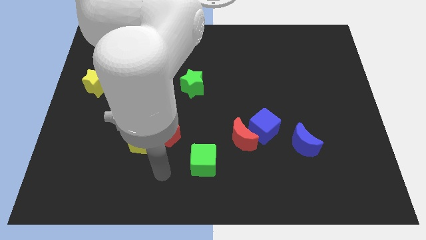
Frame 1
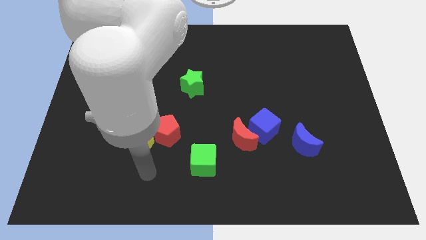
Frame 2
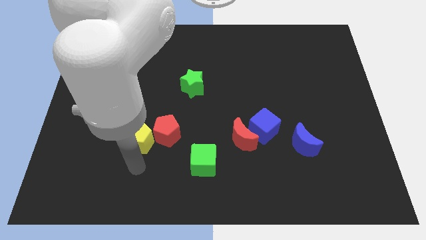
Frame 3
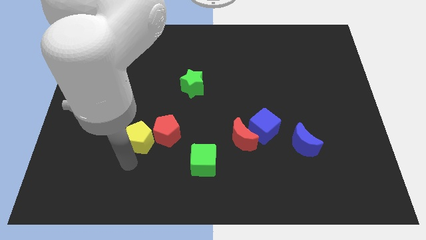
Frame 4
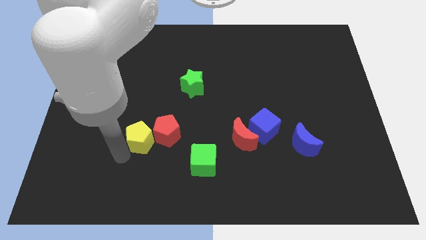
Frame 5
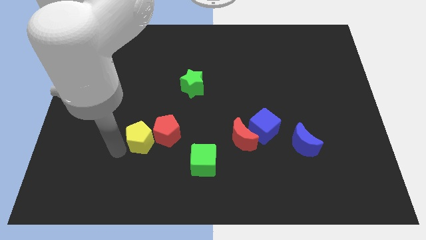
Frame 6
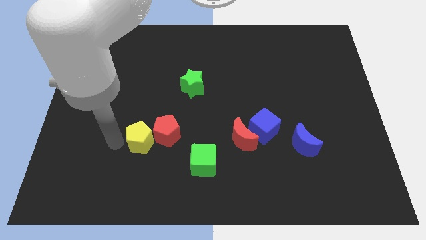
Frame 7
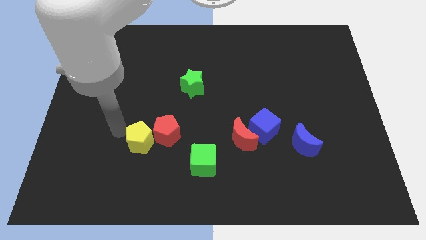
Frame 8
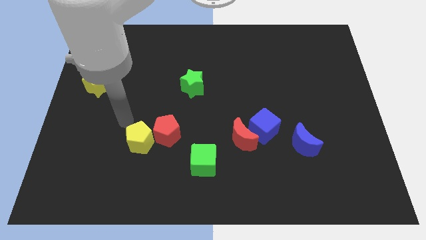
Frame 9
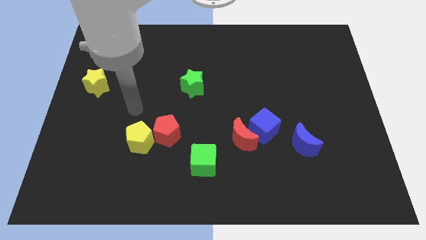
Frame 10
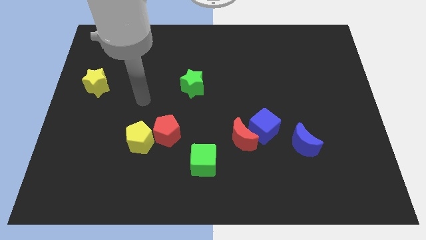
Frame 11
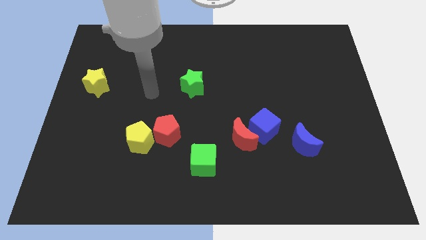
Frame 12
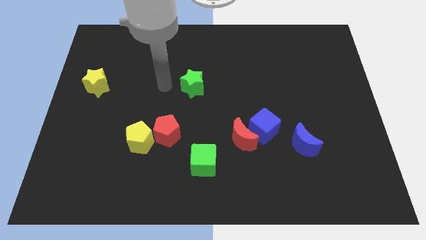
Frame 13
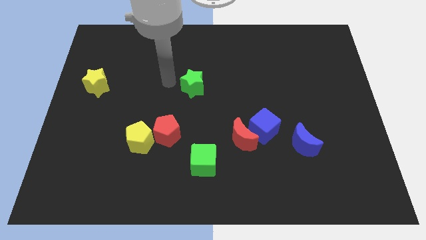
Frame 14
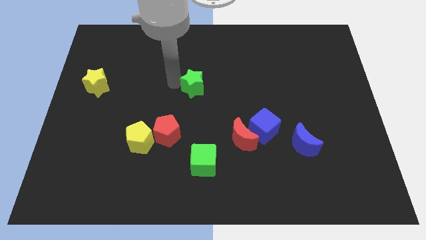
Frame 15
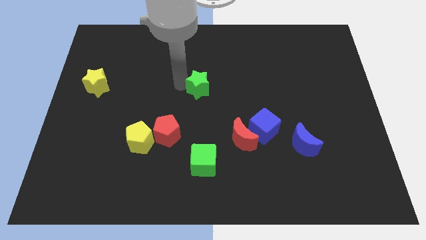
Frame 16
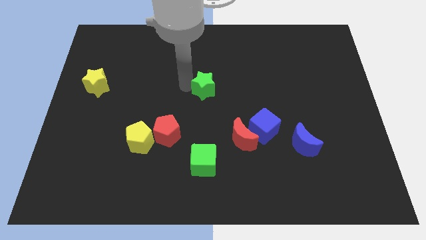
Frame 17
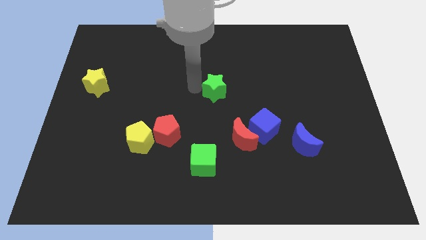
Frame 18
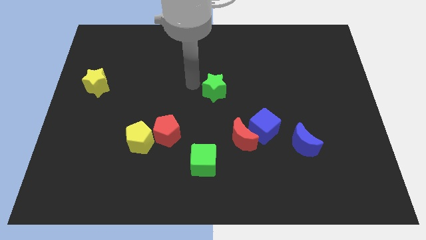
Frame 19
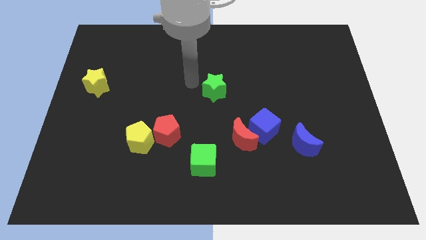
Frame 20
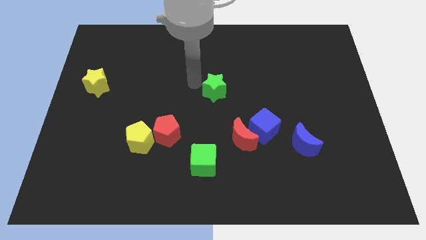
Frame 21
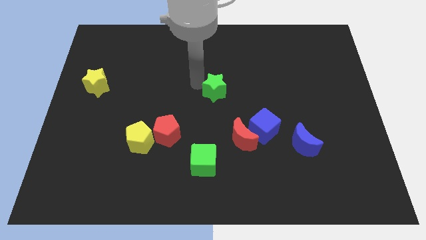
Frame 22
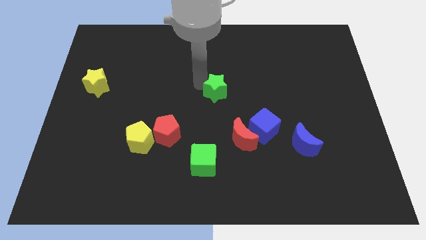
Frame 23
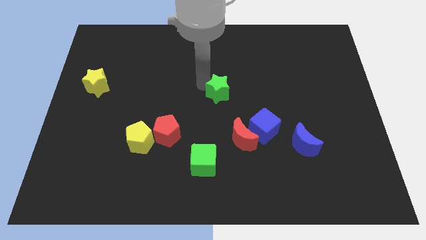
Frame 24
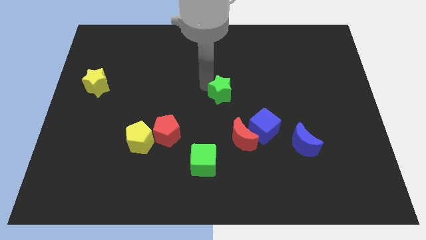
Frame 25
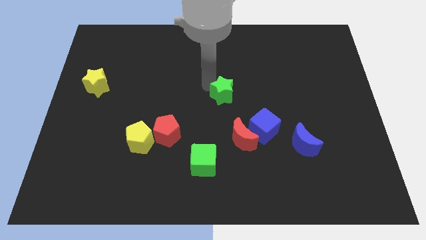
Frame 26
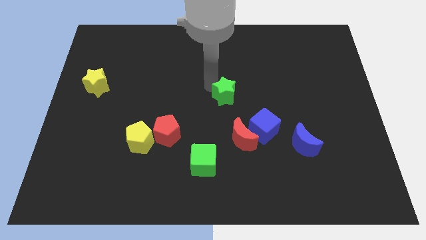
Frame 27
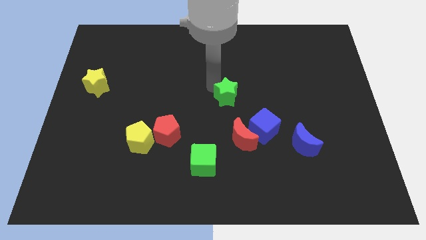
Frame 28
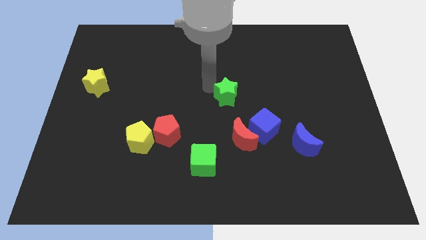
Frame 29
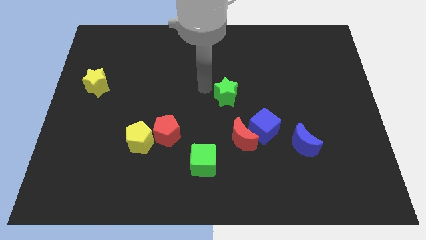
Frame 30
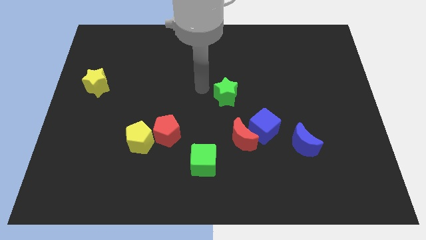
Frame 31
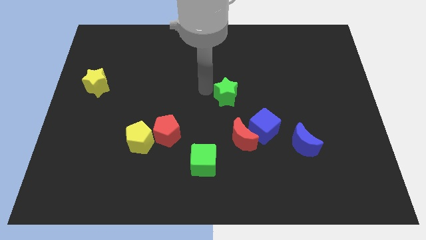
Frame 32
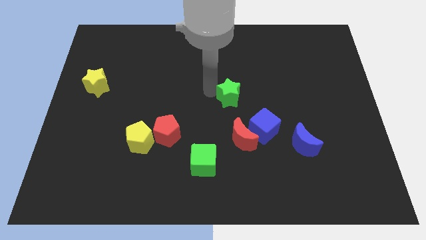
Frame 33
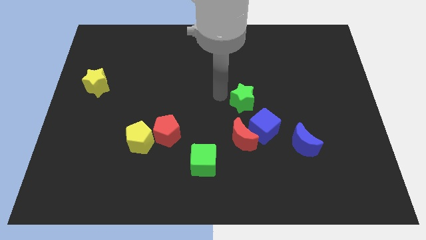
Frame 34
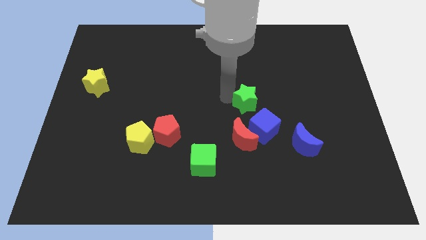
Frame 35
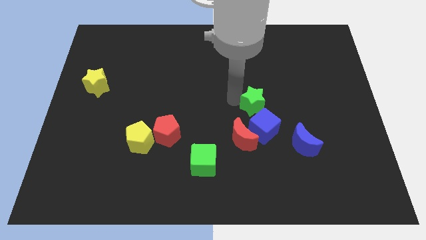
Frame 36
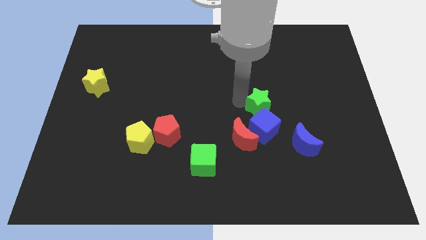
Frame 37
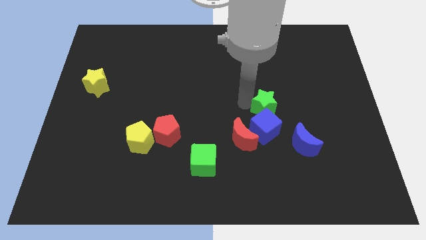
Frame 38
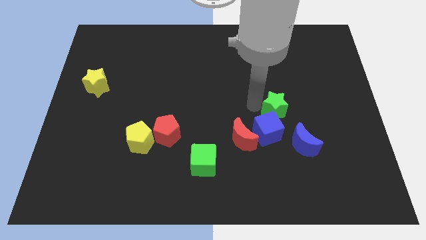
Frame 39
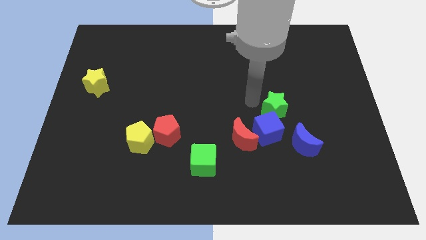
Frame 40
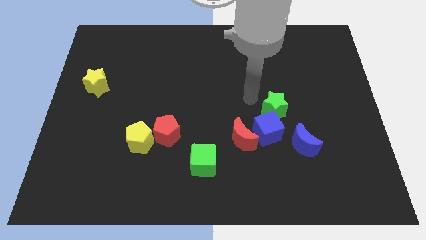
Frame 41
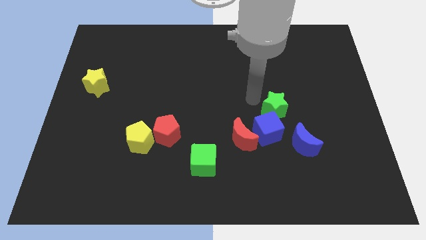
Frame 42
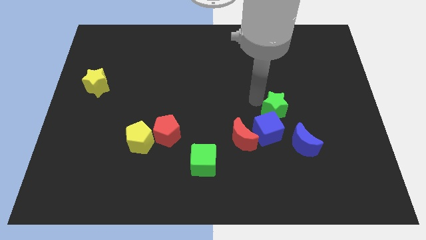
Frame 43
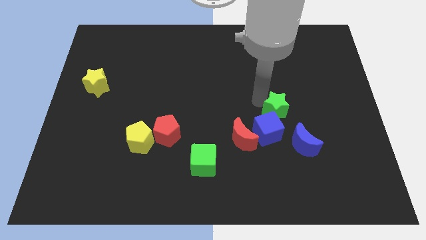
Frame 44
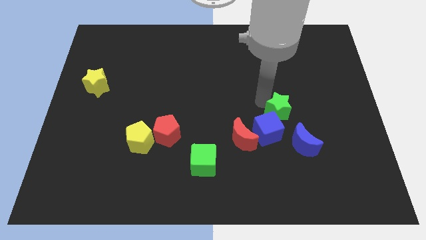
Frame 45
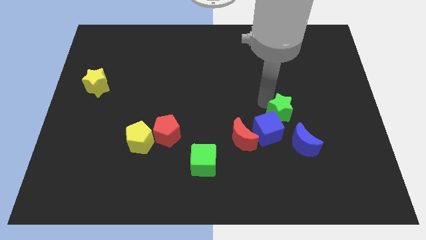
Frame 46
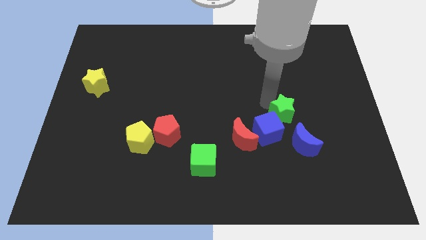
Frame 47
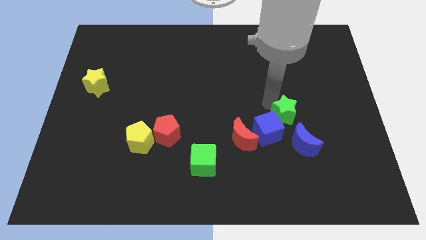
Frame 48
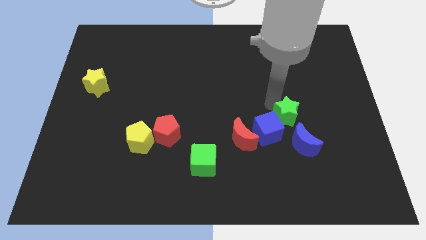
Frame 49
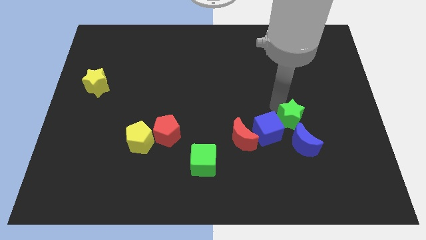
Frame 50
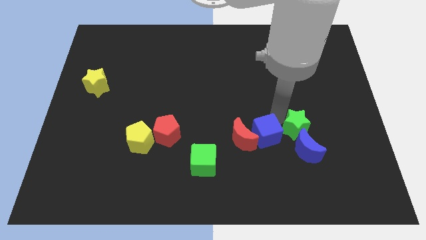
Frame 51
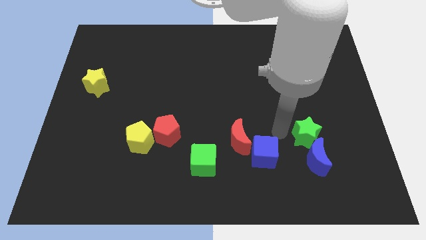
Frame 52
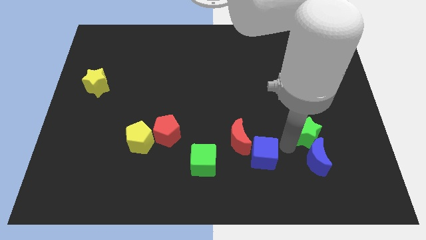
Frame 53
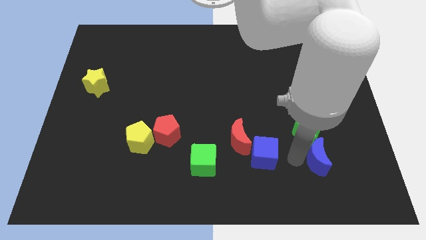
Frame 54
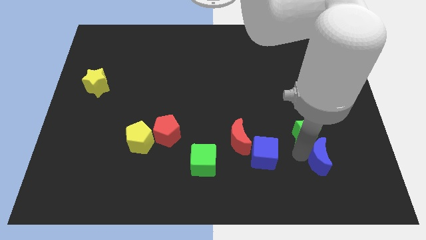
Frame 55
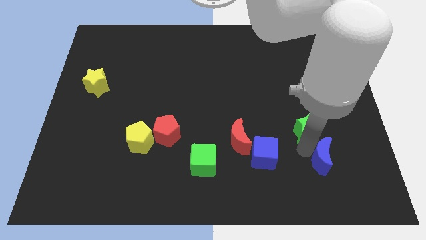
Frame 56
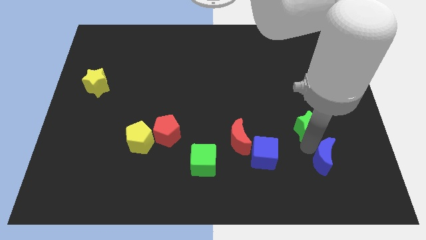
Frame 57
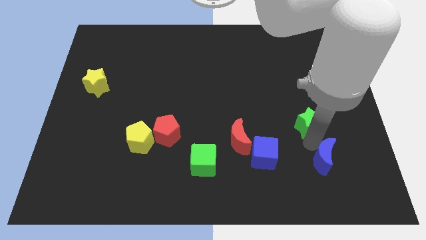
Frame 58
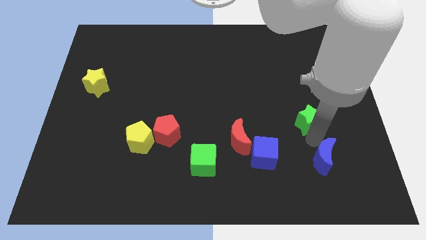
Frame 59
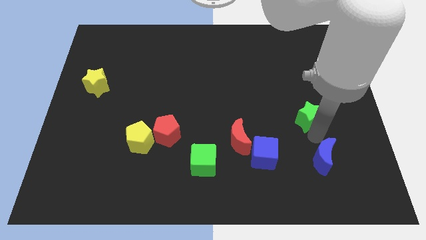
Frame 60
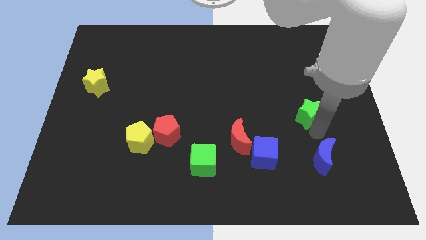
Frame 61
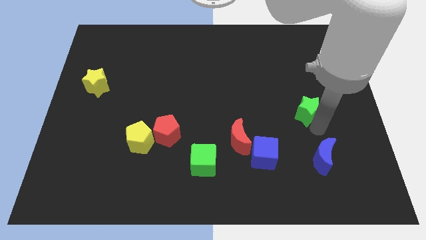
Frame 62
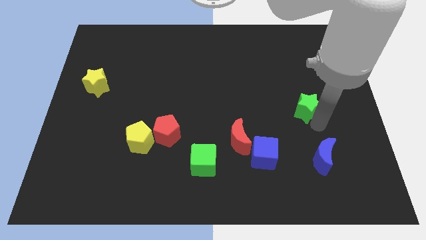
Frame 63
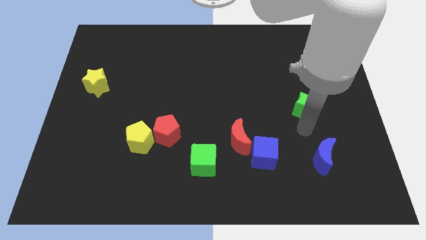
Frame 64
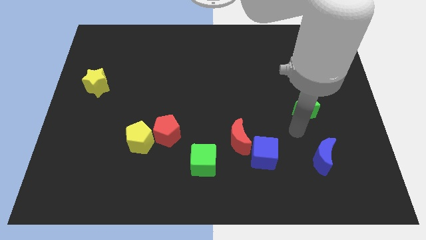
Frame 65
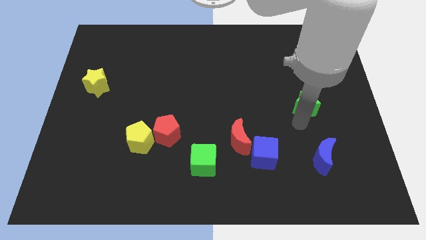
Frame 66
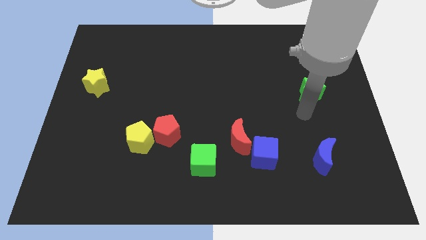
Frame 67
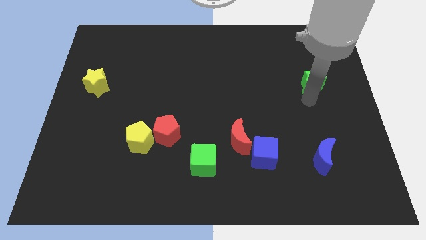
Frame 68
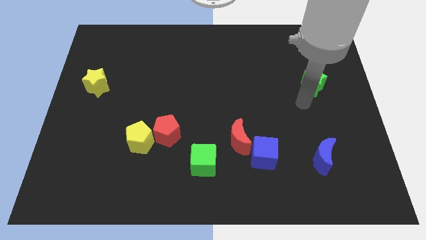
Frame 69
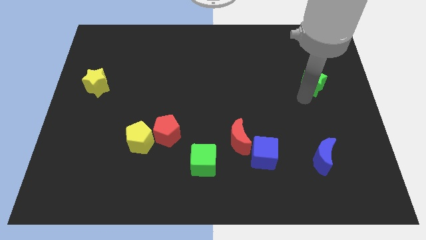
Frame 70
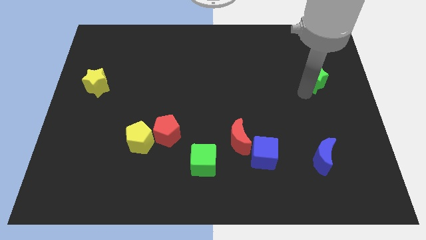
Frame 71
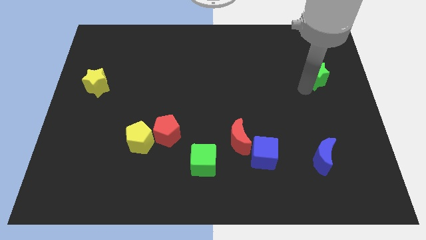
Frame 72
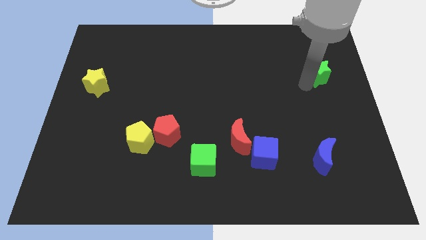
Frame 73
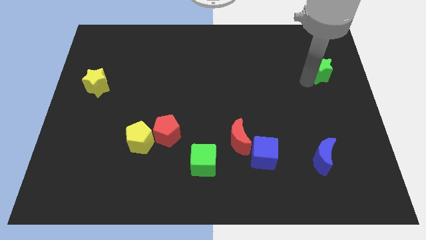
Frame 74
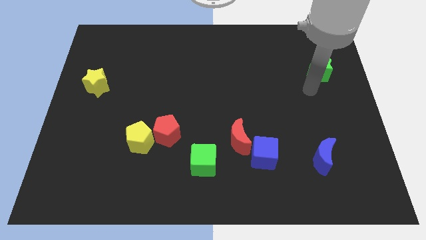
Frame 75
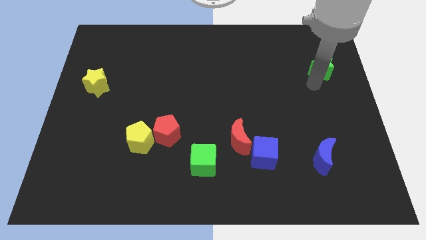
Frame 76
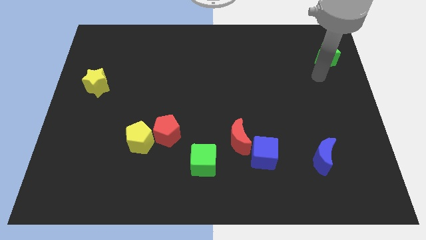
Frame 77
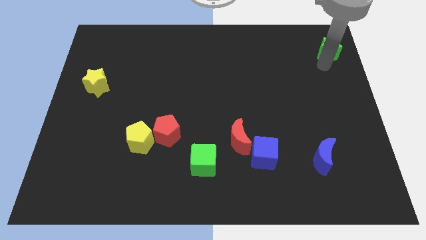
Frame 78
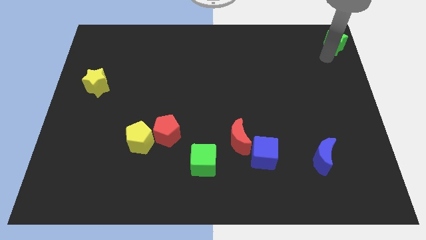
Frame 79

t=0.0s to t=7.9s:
slide the green star to the top right corner
